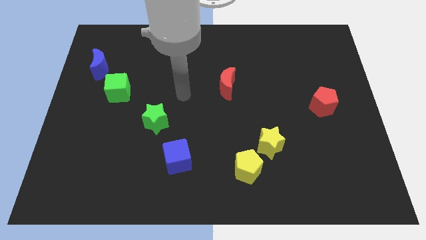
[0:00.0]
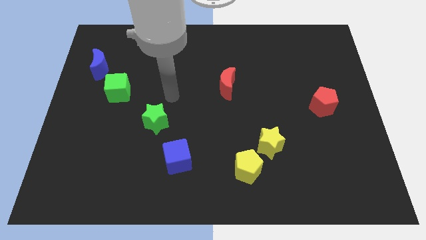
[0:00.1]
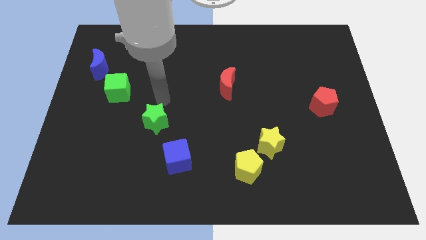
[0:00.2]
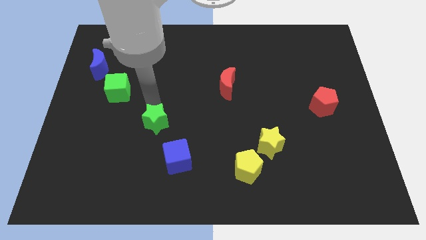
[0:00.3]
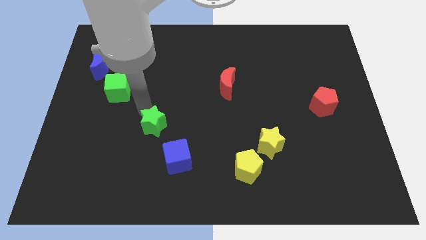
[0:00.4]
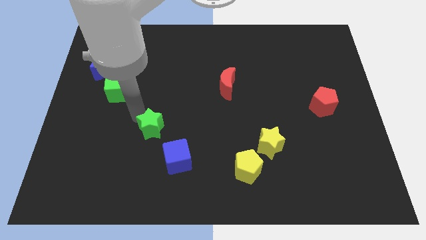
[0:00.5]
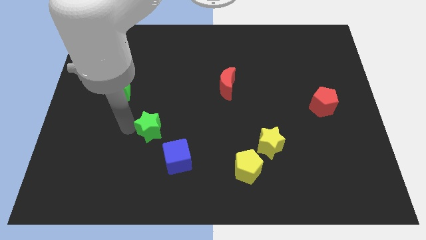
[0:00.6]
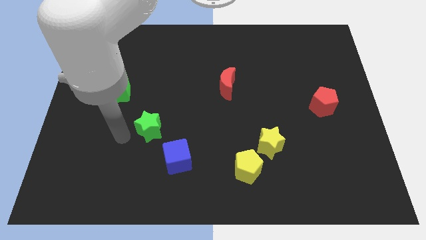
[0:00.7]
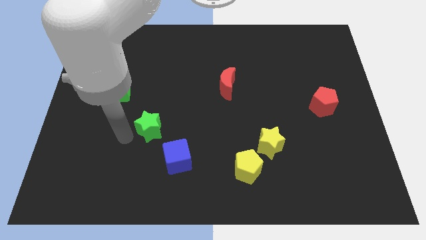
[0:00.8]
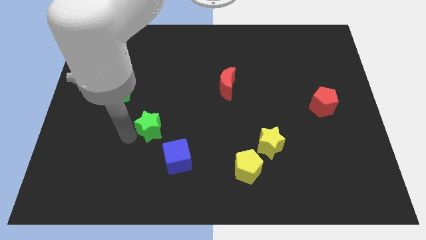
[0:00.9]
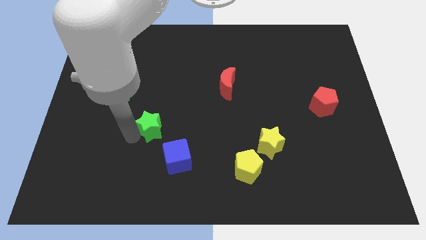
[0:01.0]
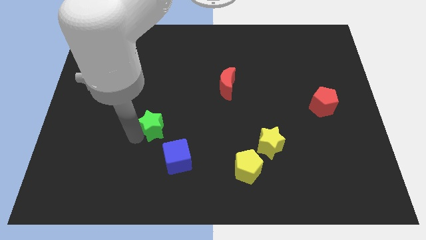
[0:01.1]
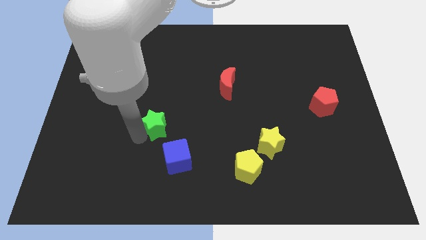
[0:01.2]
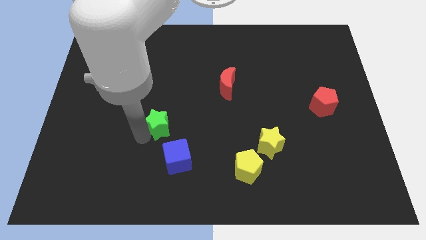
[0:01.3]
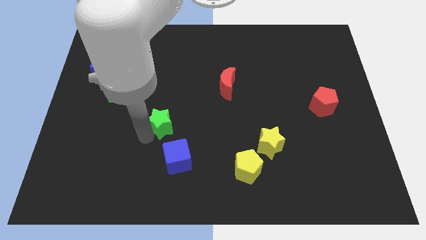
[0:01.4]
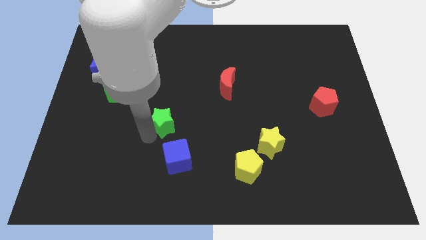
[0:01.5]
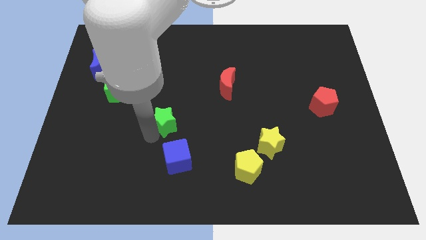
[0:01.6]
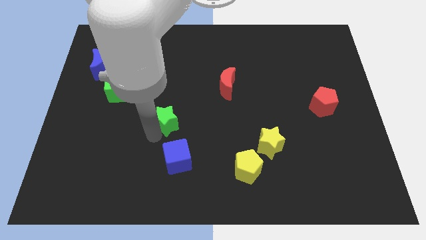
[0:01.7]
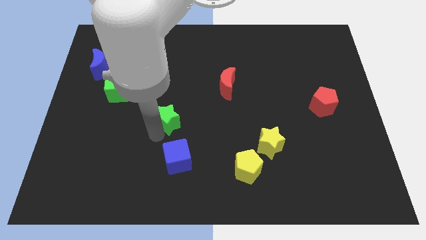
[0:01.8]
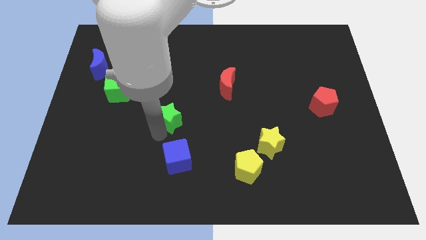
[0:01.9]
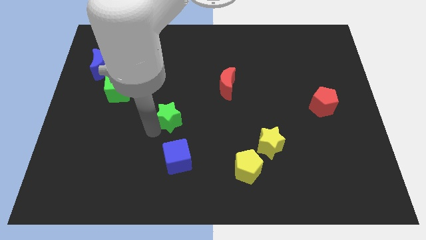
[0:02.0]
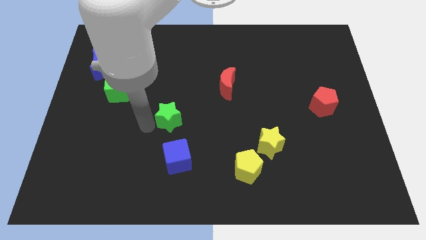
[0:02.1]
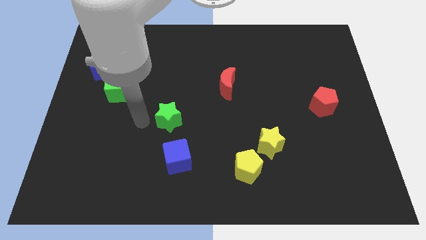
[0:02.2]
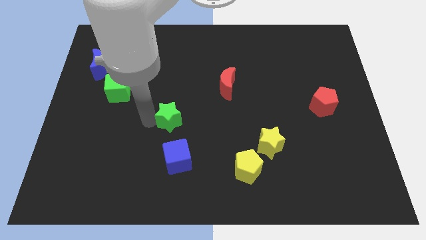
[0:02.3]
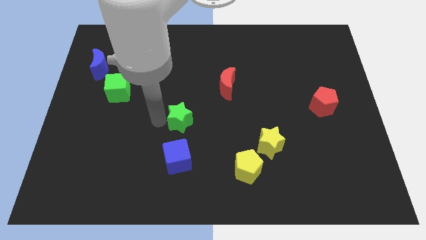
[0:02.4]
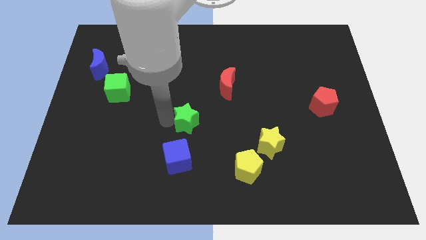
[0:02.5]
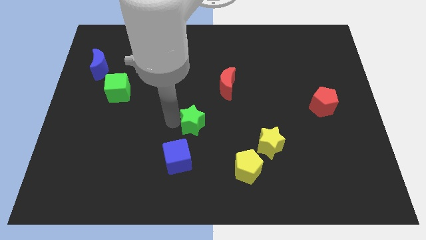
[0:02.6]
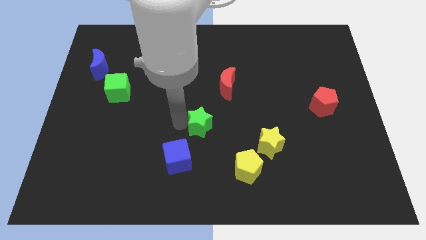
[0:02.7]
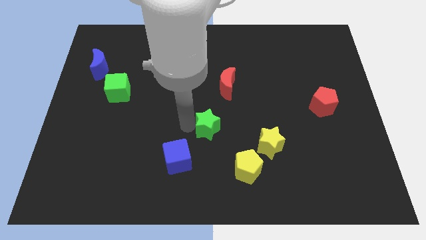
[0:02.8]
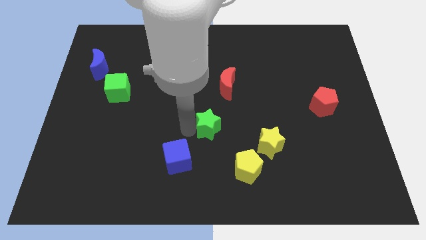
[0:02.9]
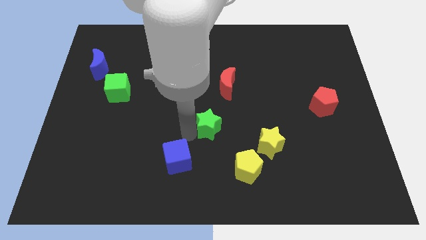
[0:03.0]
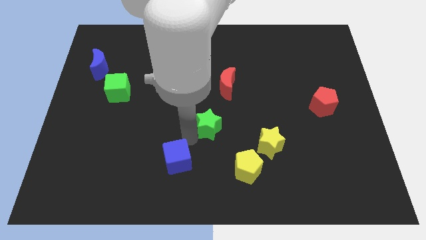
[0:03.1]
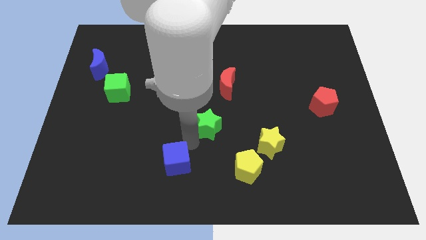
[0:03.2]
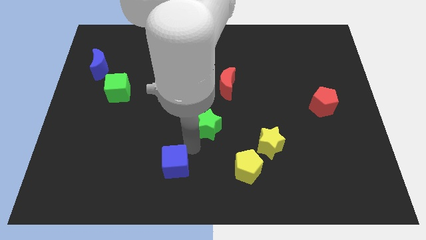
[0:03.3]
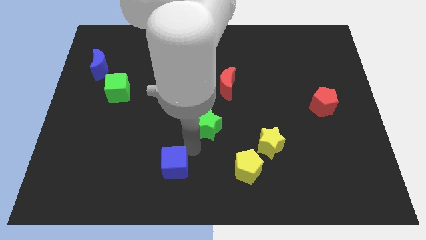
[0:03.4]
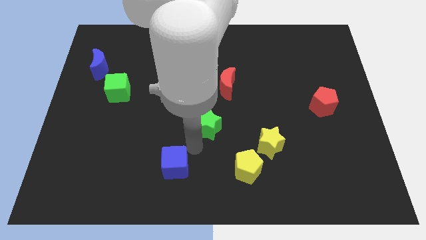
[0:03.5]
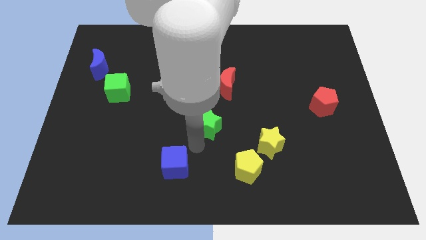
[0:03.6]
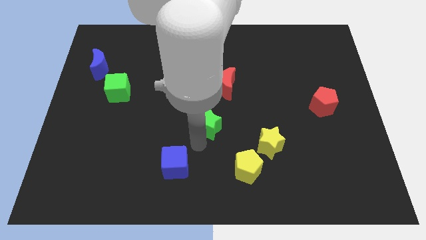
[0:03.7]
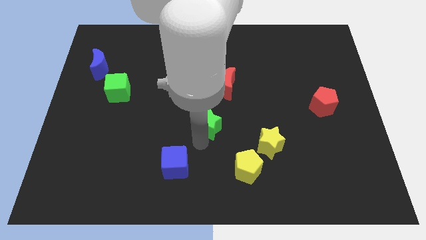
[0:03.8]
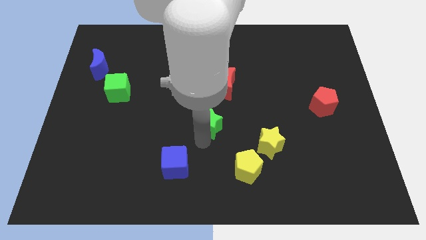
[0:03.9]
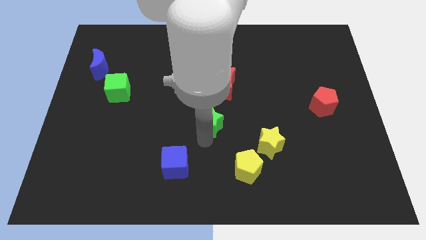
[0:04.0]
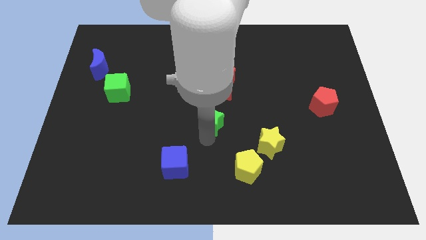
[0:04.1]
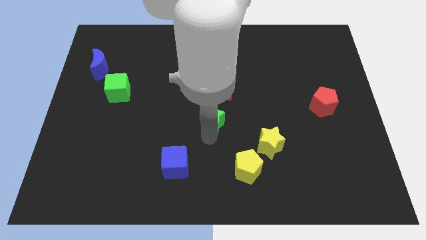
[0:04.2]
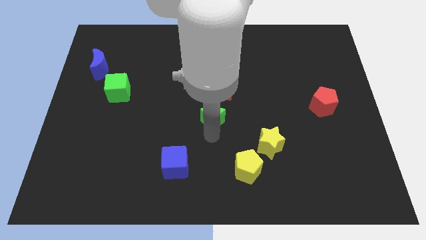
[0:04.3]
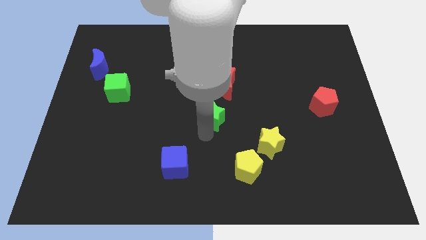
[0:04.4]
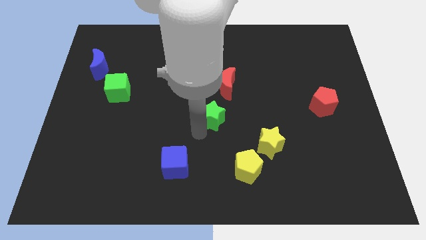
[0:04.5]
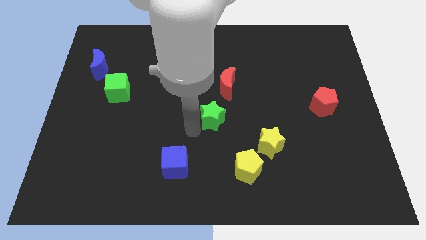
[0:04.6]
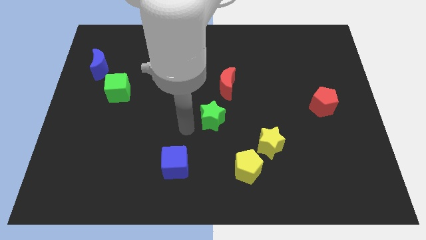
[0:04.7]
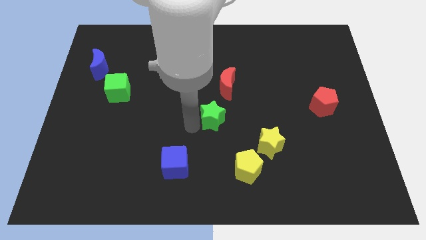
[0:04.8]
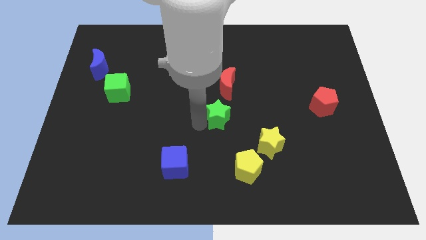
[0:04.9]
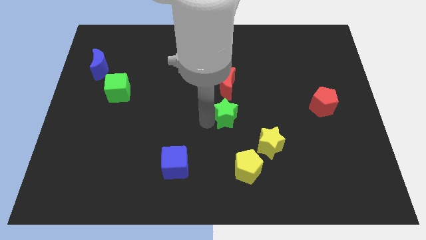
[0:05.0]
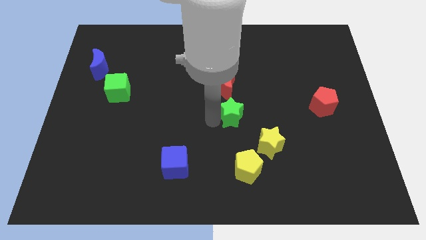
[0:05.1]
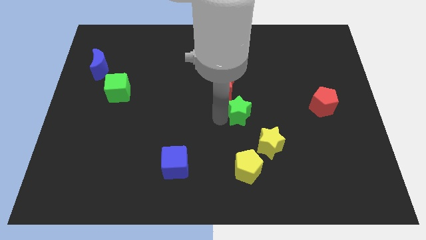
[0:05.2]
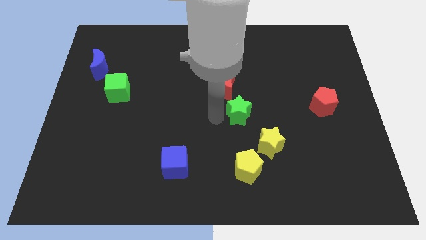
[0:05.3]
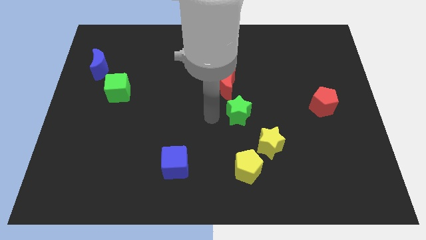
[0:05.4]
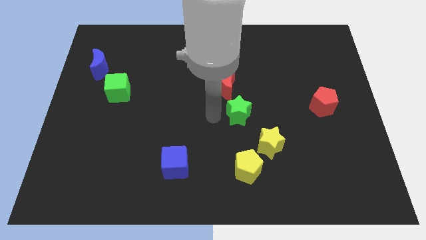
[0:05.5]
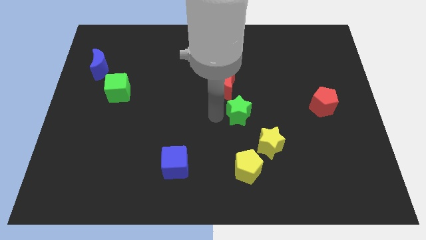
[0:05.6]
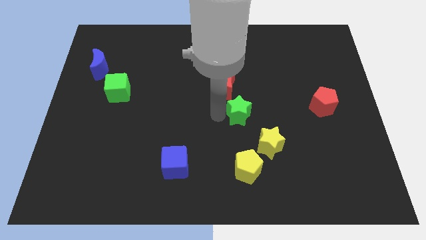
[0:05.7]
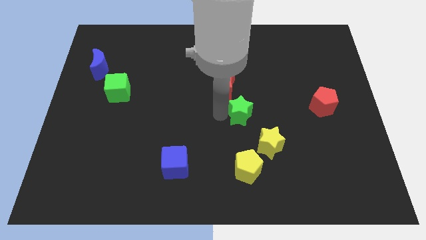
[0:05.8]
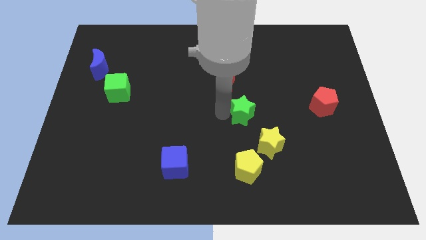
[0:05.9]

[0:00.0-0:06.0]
move the green star to the right

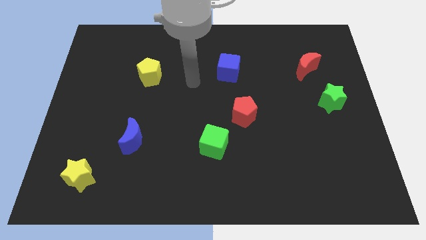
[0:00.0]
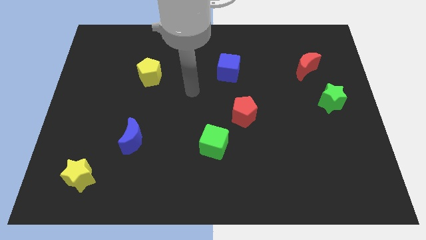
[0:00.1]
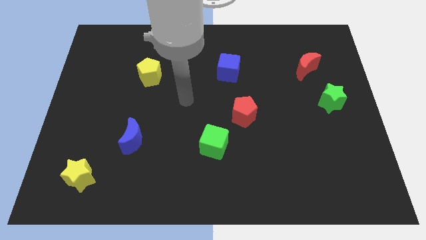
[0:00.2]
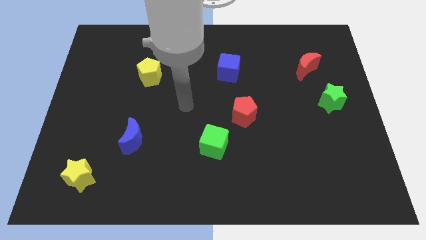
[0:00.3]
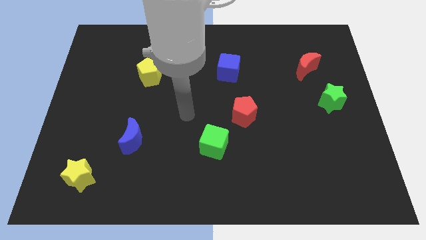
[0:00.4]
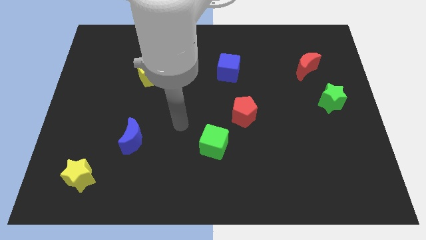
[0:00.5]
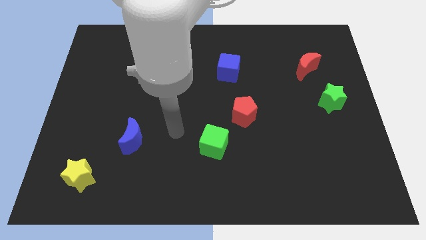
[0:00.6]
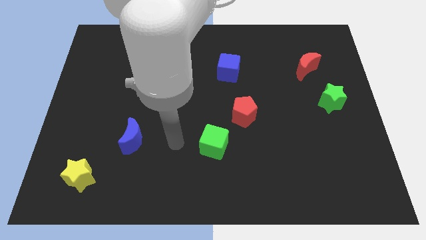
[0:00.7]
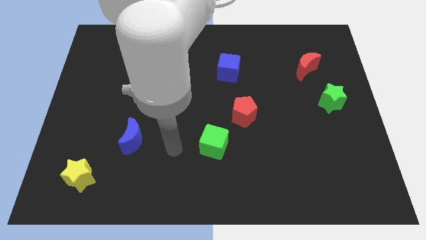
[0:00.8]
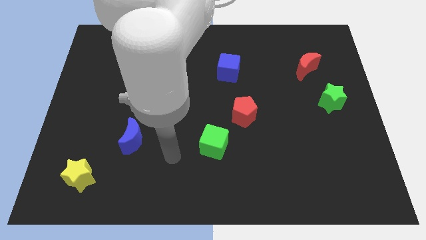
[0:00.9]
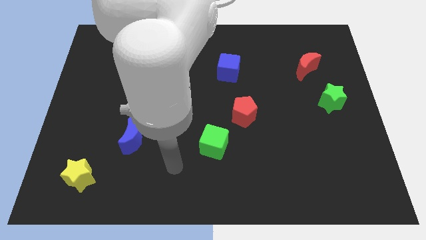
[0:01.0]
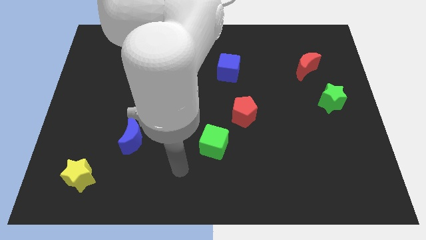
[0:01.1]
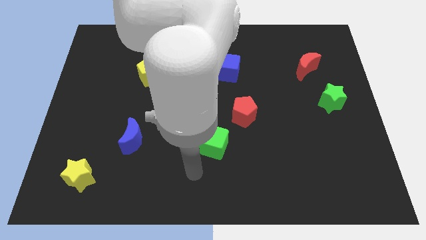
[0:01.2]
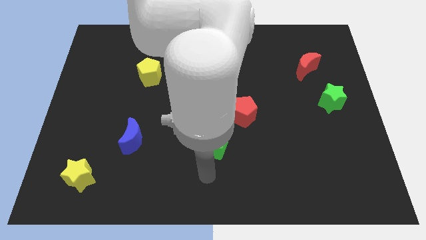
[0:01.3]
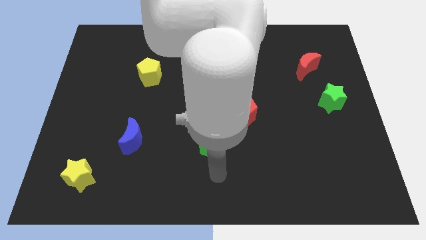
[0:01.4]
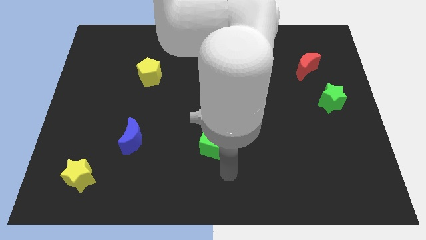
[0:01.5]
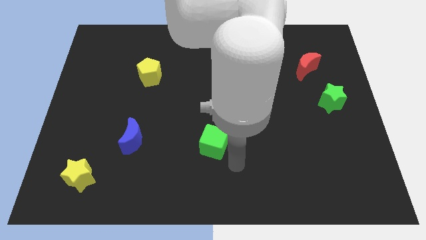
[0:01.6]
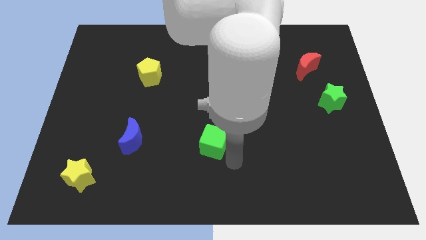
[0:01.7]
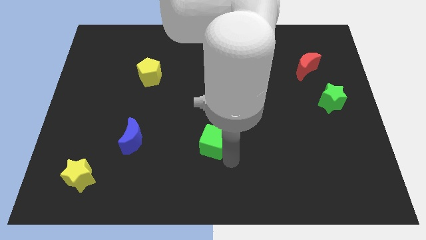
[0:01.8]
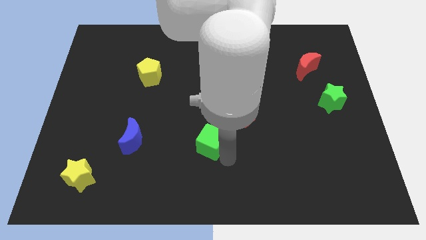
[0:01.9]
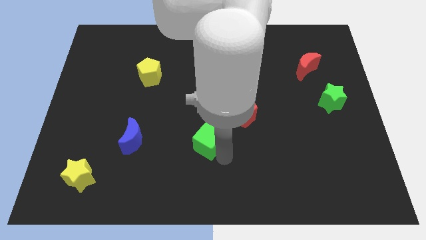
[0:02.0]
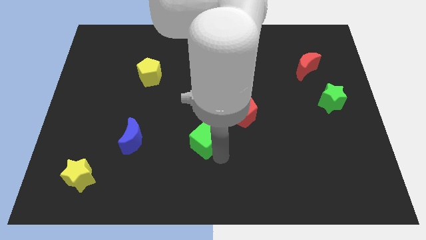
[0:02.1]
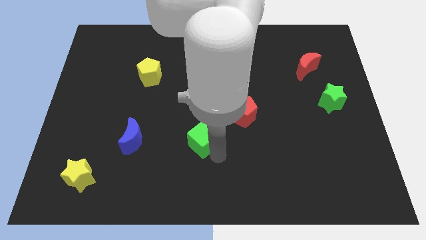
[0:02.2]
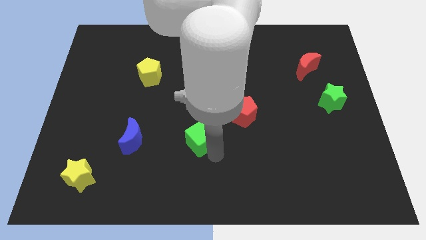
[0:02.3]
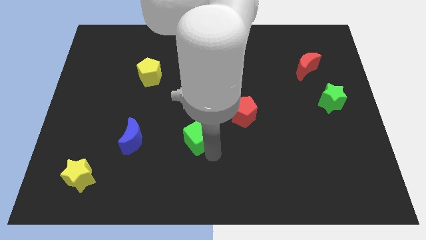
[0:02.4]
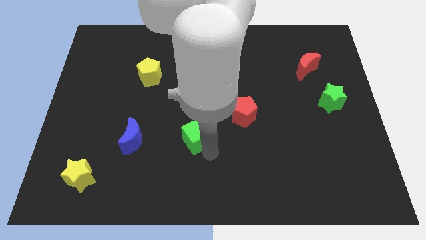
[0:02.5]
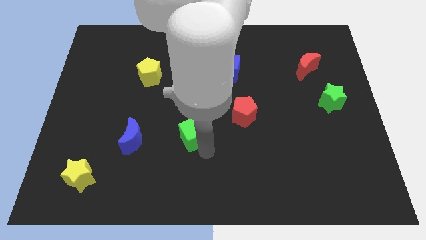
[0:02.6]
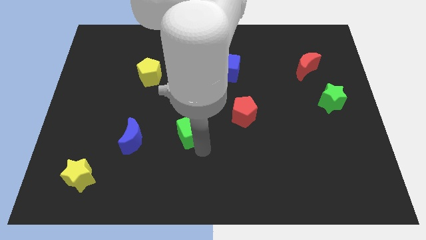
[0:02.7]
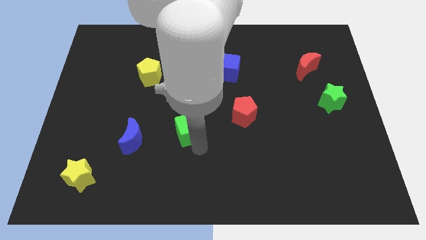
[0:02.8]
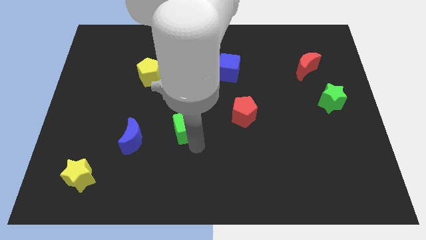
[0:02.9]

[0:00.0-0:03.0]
push the green cube up and left a little
